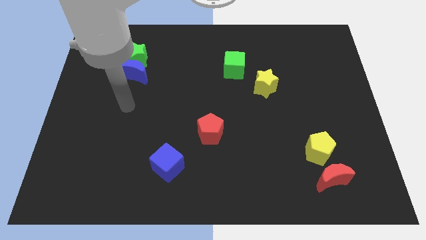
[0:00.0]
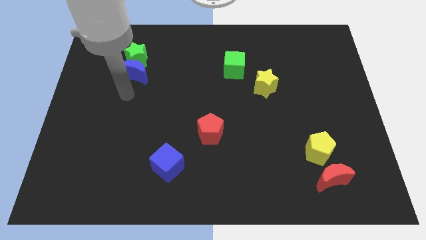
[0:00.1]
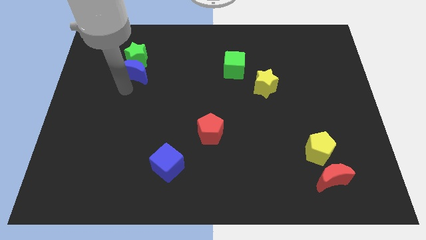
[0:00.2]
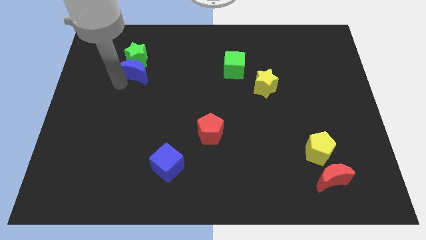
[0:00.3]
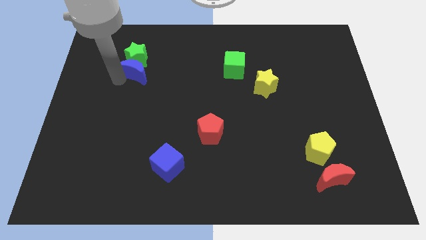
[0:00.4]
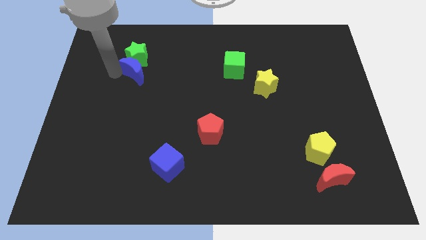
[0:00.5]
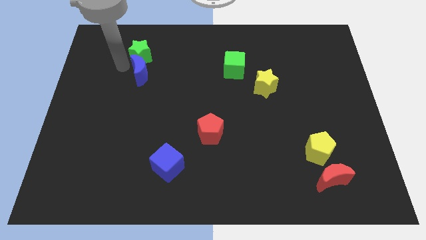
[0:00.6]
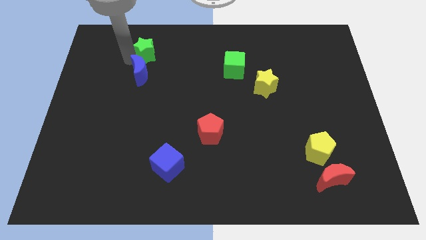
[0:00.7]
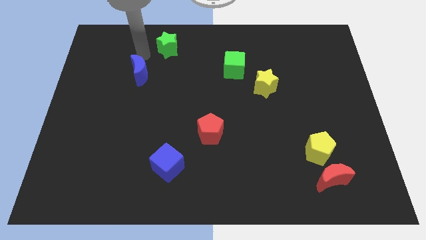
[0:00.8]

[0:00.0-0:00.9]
move the blue moon away from the green star

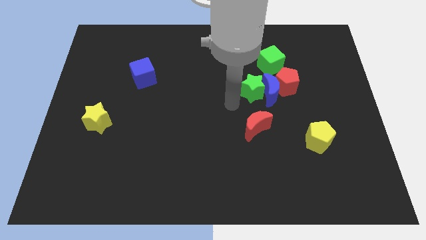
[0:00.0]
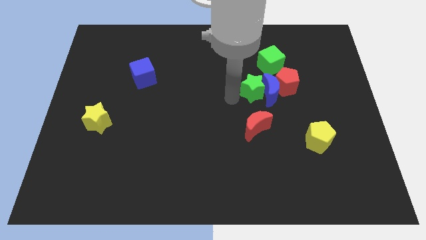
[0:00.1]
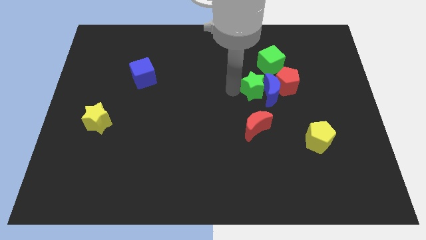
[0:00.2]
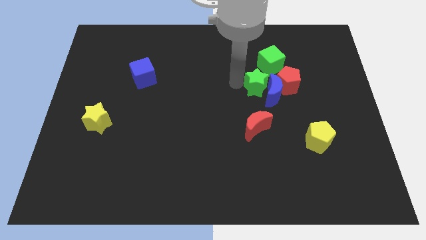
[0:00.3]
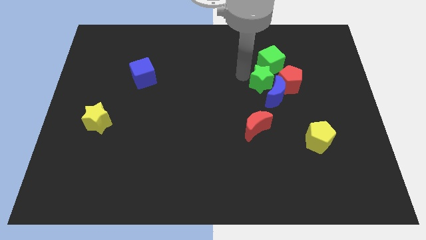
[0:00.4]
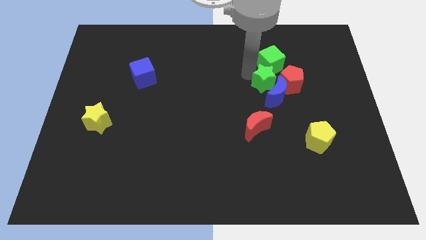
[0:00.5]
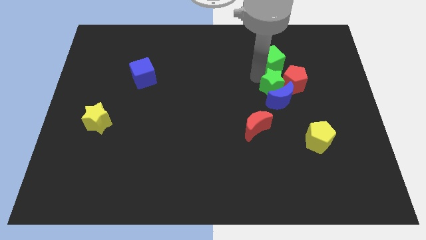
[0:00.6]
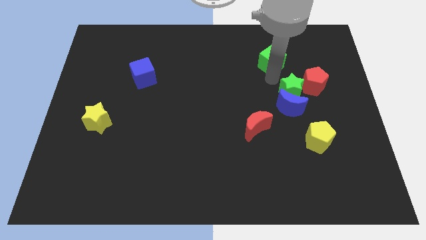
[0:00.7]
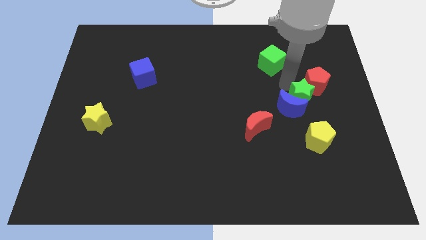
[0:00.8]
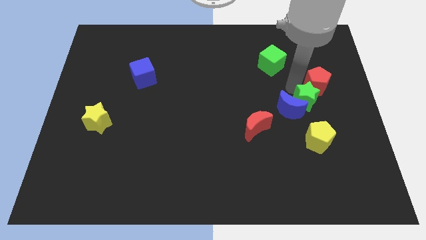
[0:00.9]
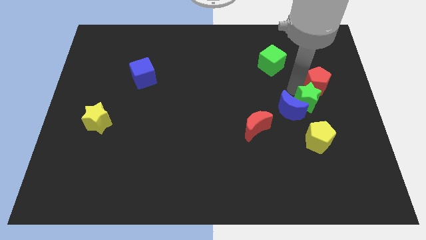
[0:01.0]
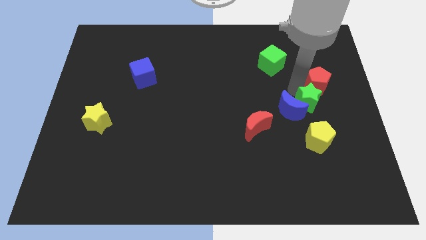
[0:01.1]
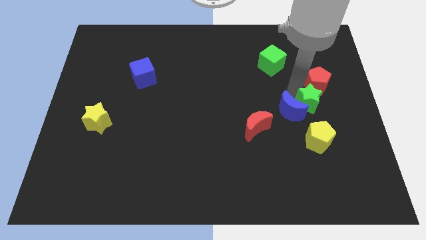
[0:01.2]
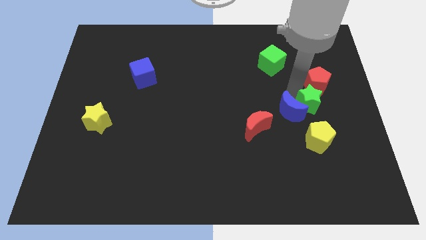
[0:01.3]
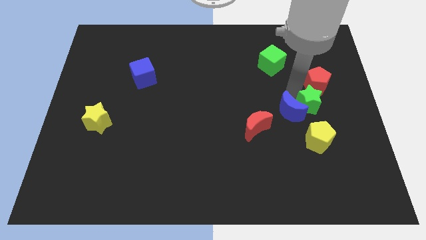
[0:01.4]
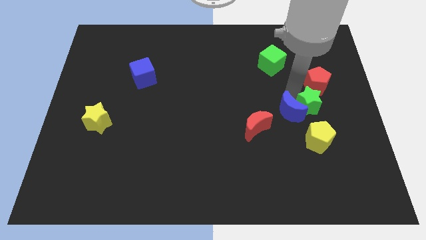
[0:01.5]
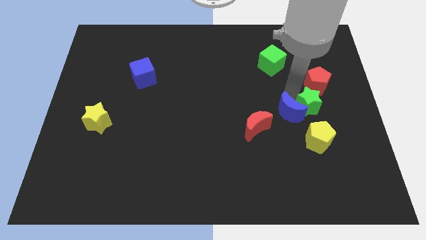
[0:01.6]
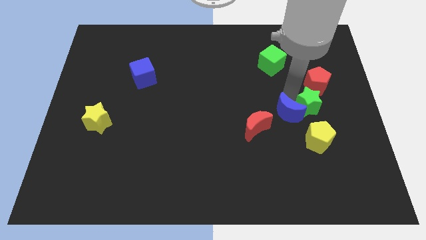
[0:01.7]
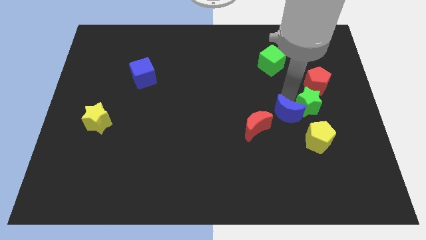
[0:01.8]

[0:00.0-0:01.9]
separate the blue moon from the group

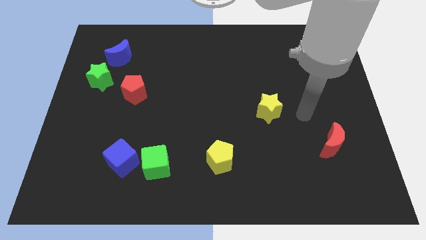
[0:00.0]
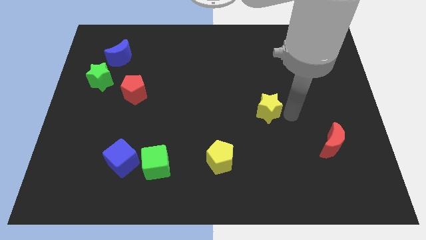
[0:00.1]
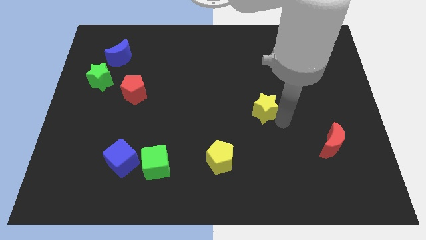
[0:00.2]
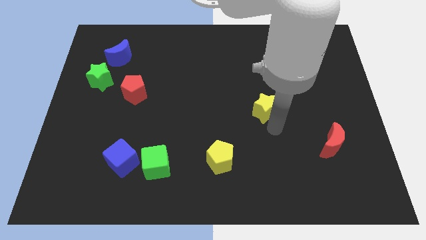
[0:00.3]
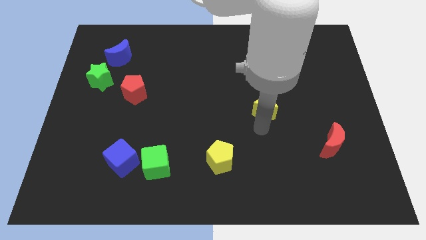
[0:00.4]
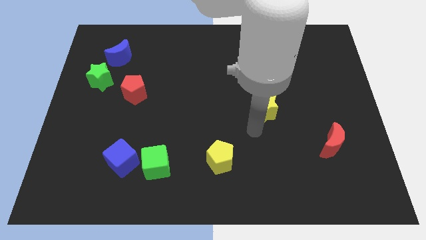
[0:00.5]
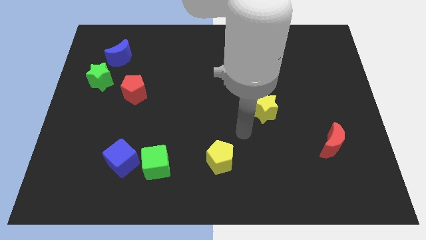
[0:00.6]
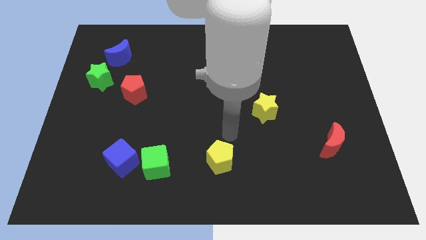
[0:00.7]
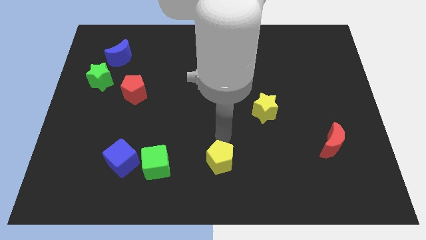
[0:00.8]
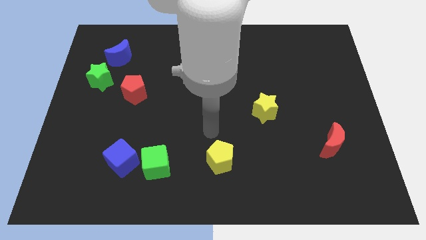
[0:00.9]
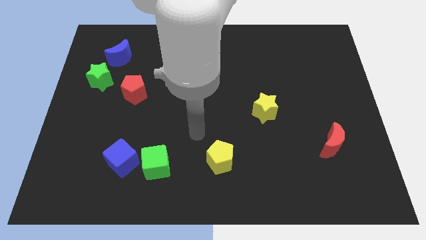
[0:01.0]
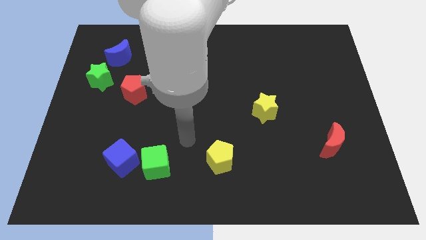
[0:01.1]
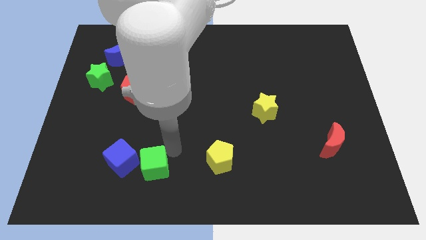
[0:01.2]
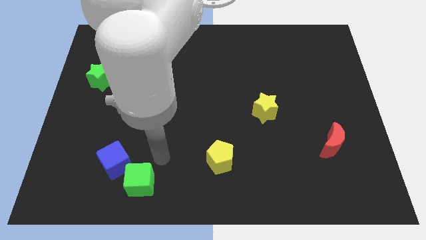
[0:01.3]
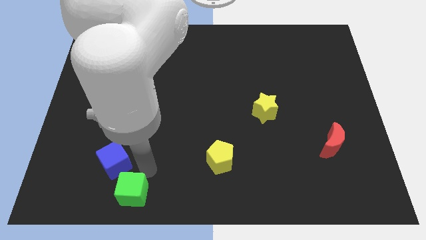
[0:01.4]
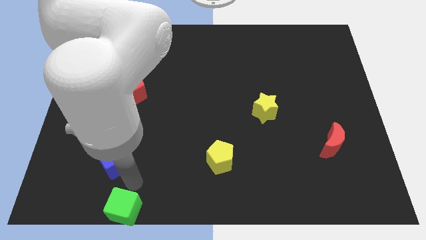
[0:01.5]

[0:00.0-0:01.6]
pull the blue cube apart from the green cube

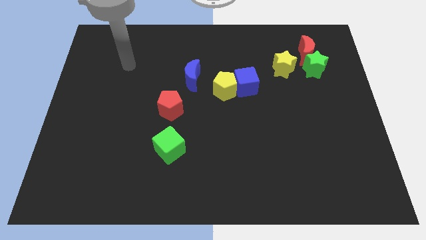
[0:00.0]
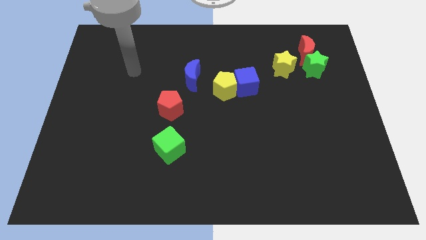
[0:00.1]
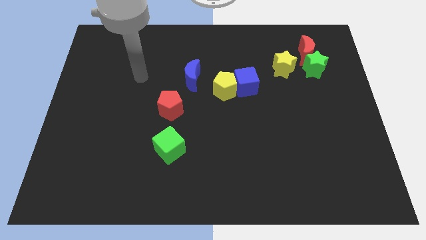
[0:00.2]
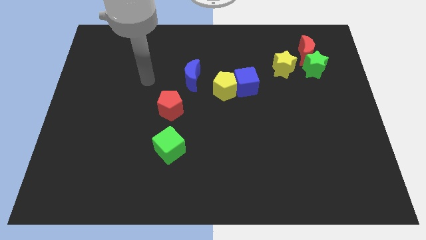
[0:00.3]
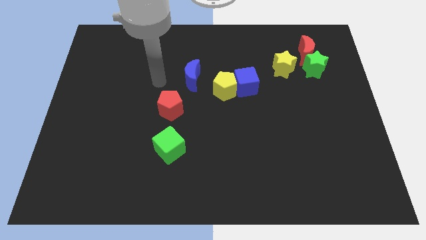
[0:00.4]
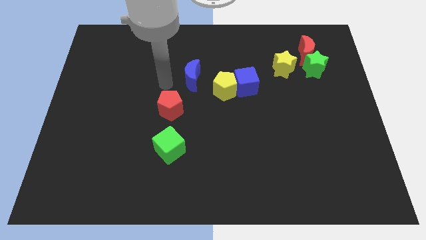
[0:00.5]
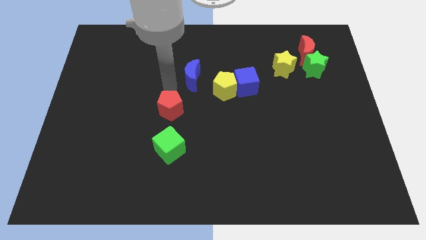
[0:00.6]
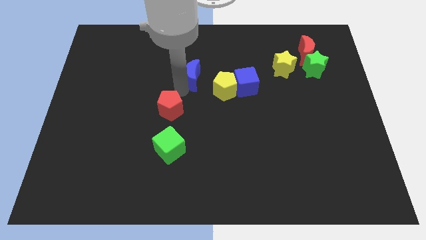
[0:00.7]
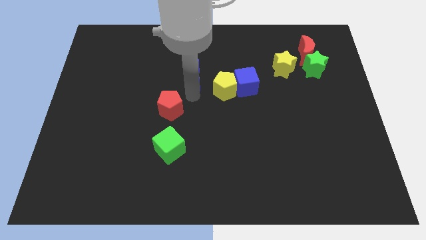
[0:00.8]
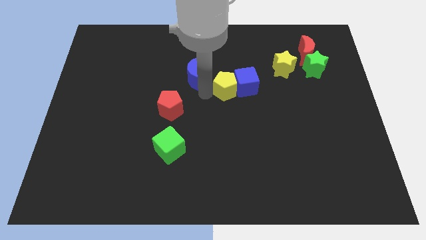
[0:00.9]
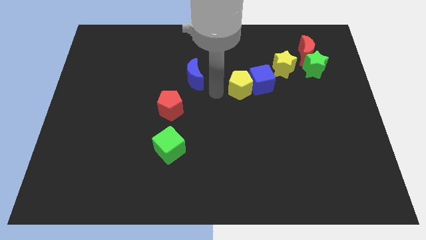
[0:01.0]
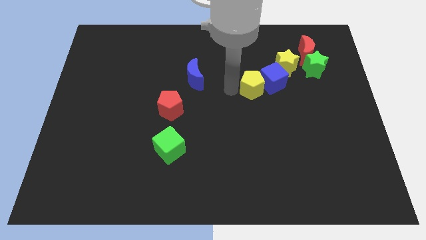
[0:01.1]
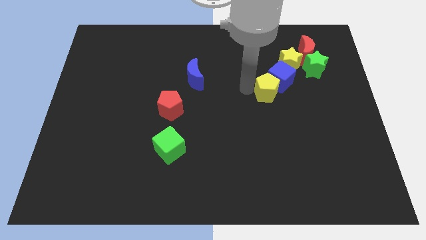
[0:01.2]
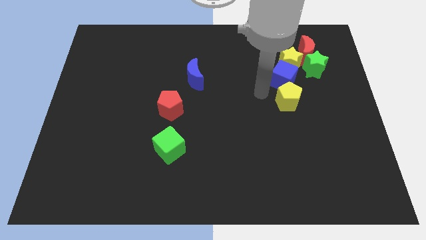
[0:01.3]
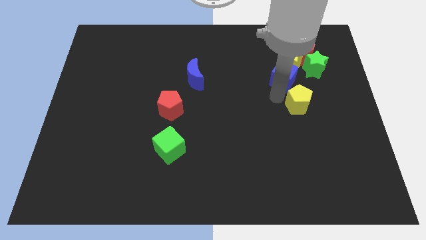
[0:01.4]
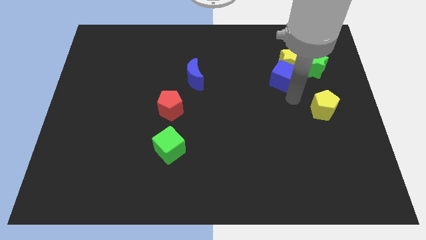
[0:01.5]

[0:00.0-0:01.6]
move the blue cube away from the yellow pentagon

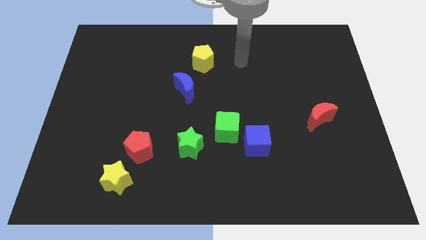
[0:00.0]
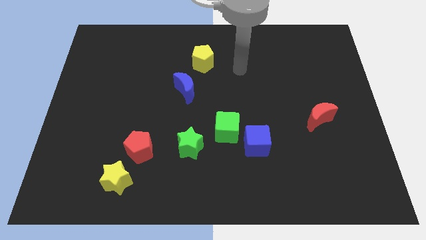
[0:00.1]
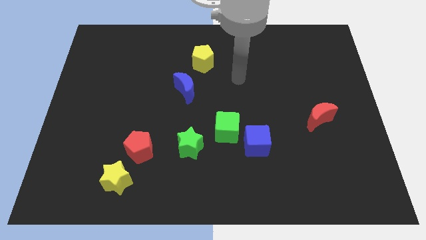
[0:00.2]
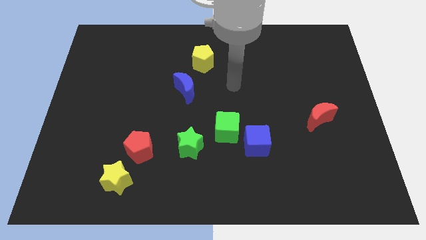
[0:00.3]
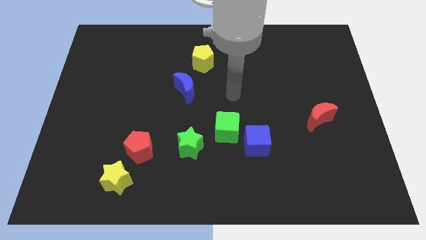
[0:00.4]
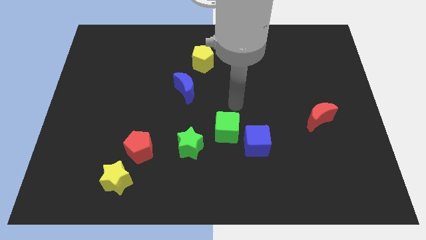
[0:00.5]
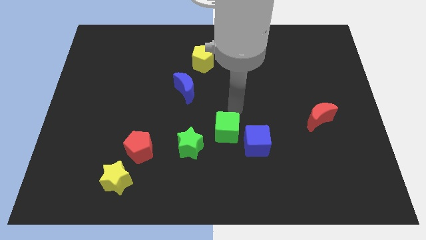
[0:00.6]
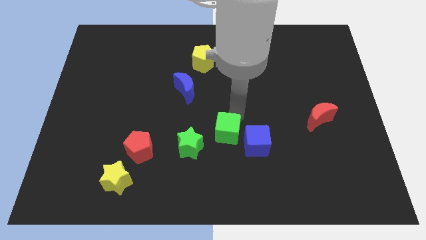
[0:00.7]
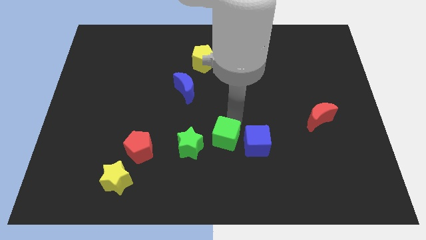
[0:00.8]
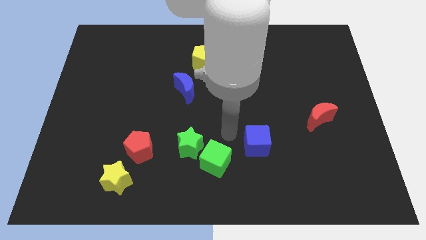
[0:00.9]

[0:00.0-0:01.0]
separate the blue cube from the green cube

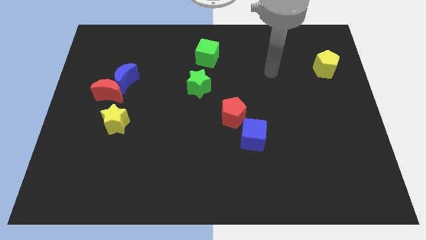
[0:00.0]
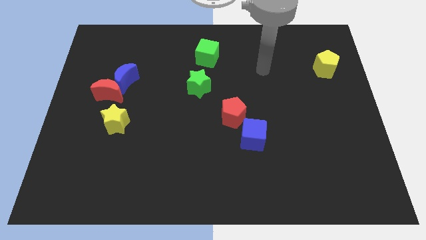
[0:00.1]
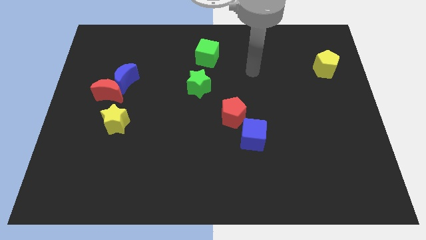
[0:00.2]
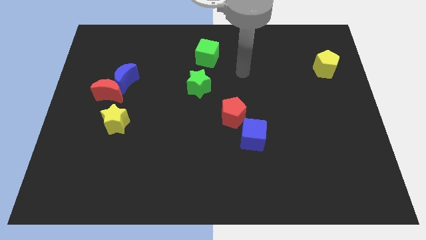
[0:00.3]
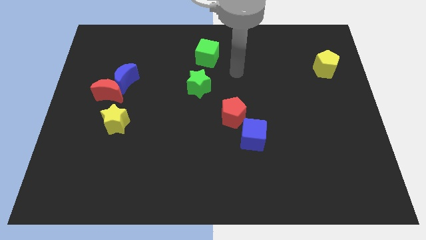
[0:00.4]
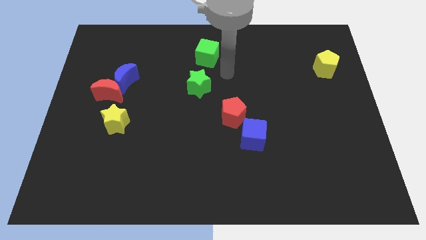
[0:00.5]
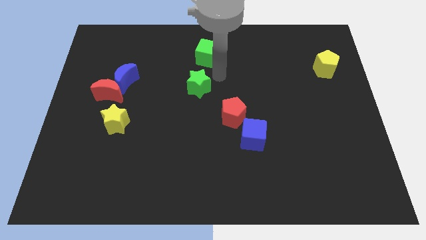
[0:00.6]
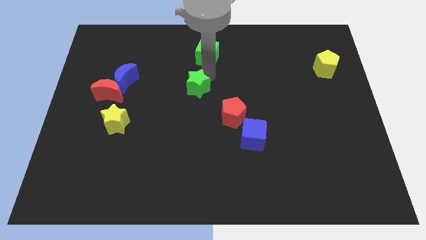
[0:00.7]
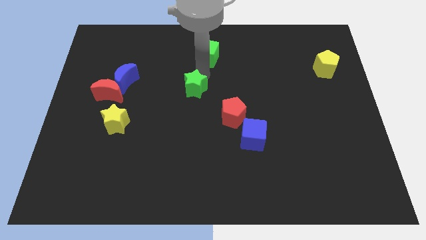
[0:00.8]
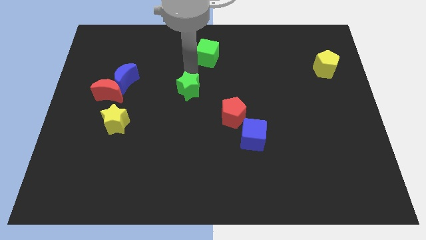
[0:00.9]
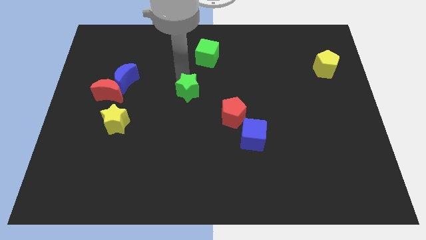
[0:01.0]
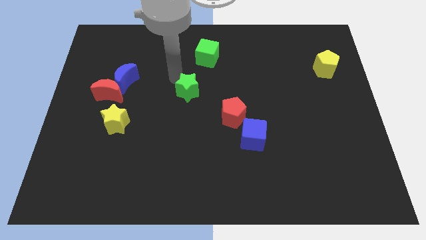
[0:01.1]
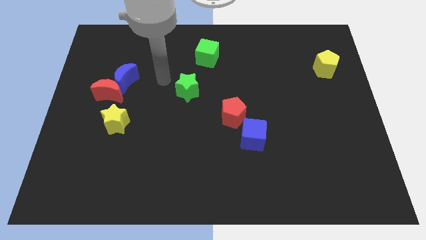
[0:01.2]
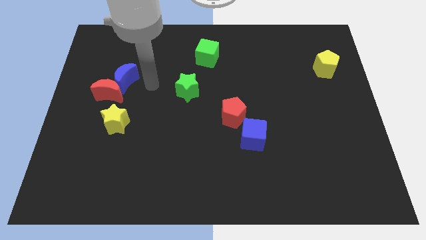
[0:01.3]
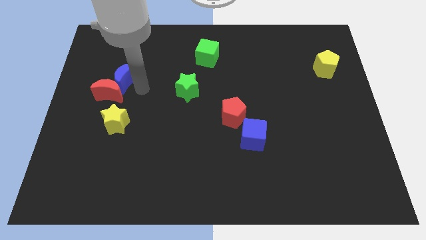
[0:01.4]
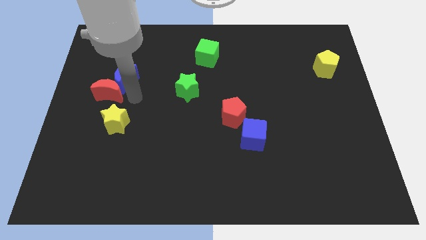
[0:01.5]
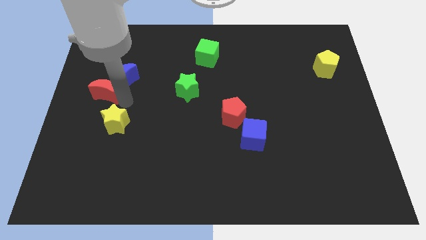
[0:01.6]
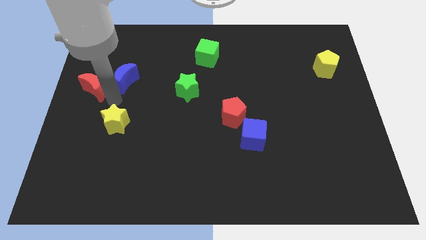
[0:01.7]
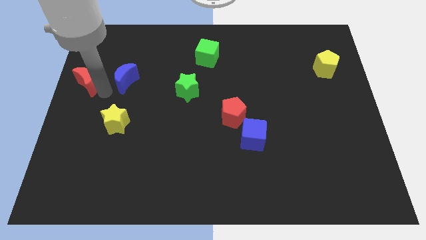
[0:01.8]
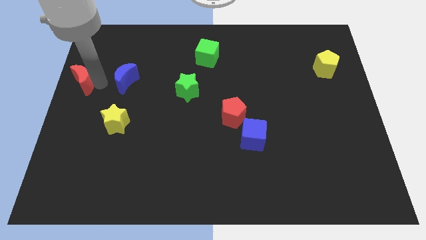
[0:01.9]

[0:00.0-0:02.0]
move the blue moon away from the red moon

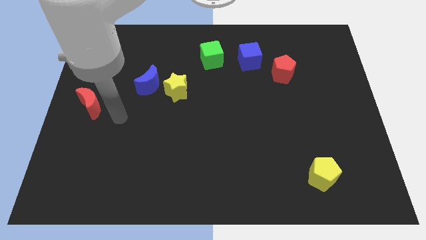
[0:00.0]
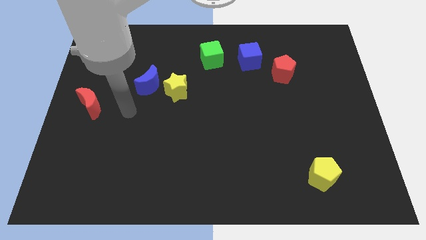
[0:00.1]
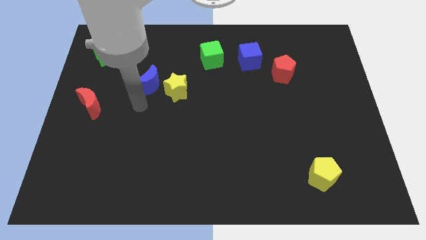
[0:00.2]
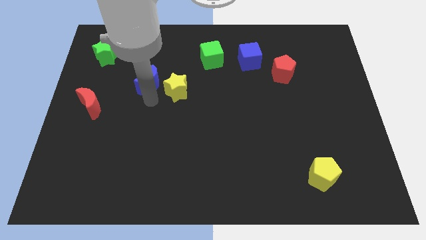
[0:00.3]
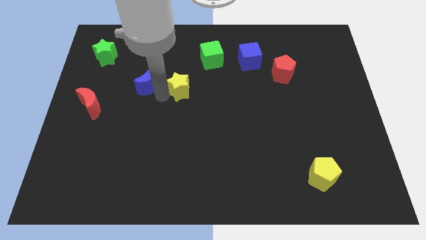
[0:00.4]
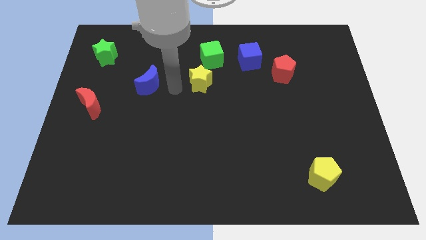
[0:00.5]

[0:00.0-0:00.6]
separate the blue moon from the yellow star
